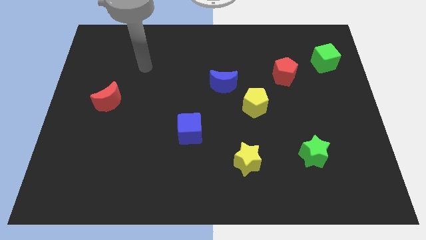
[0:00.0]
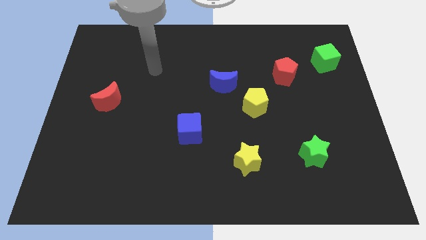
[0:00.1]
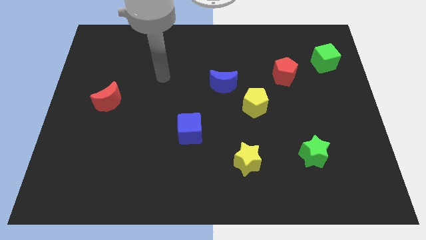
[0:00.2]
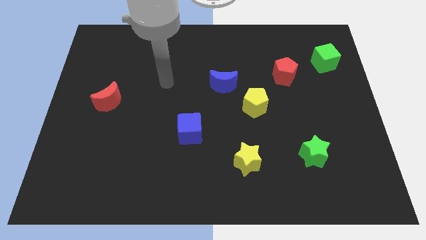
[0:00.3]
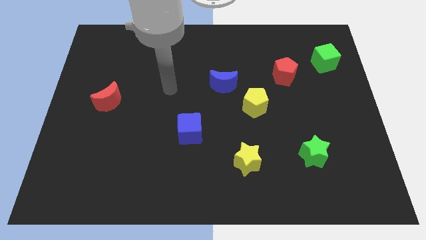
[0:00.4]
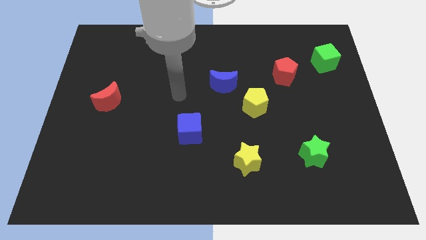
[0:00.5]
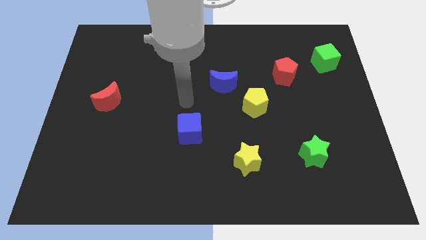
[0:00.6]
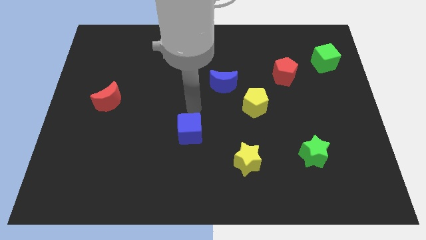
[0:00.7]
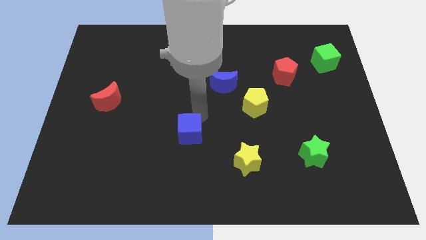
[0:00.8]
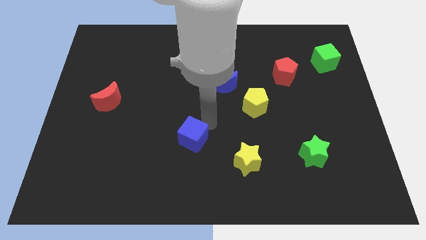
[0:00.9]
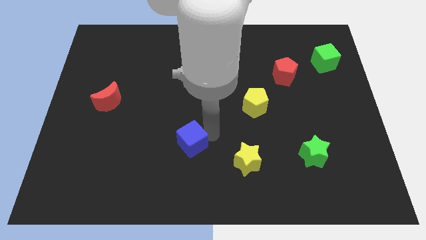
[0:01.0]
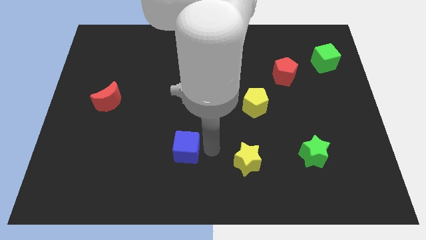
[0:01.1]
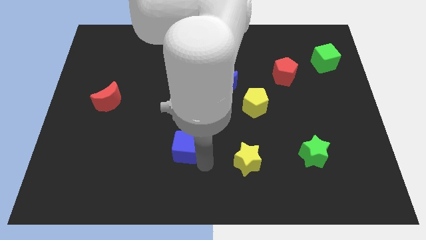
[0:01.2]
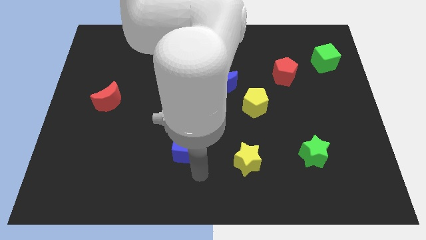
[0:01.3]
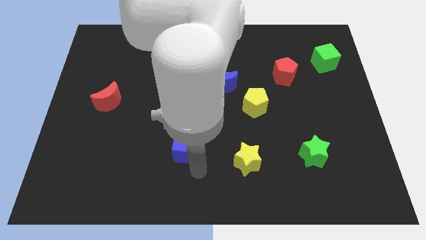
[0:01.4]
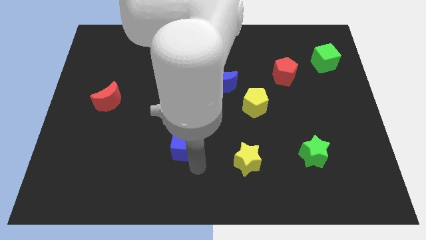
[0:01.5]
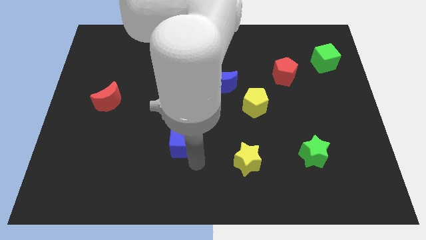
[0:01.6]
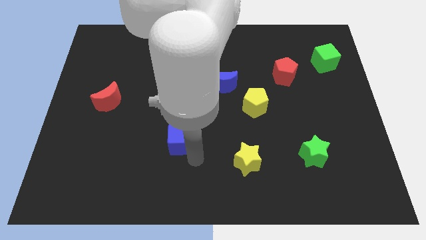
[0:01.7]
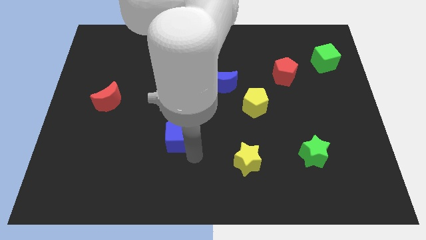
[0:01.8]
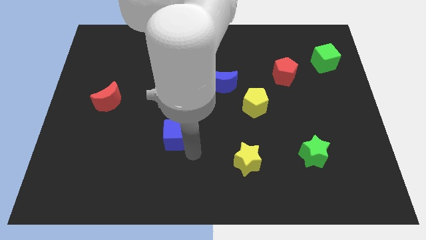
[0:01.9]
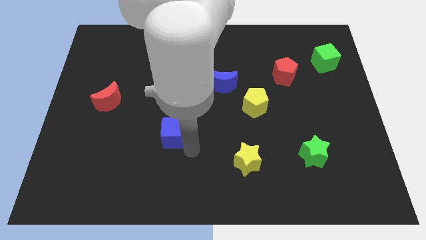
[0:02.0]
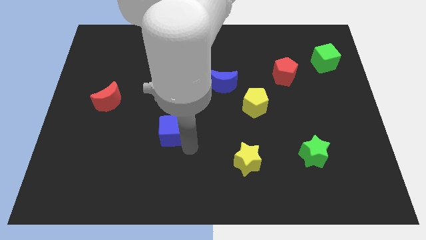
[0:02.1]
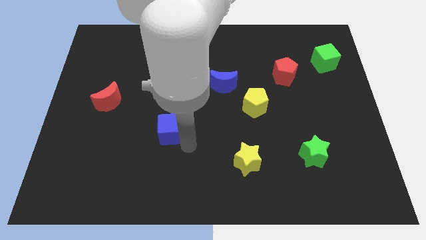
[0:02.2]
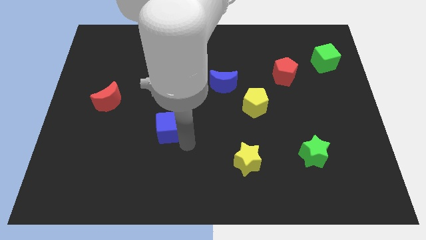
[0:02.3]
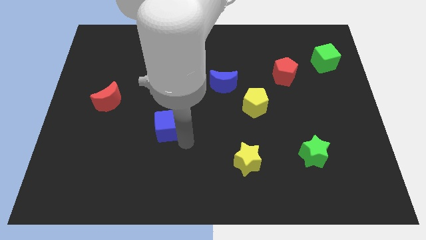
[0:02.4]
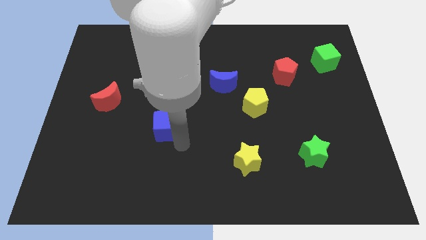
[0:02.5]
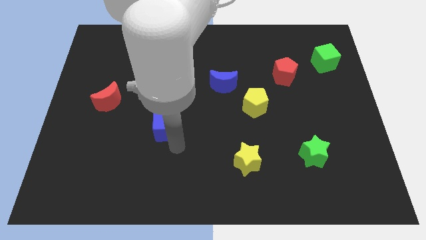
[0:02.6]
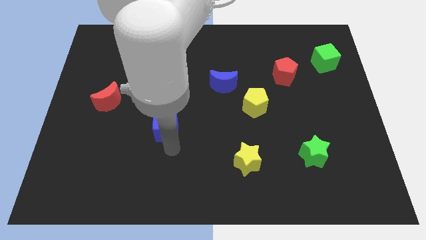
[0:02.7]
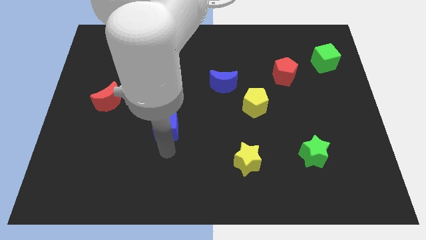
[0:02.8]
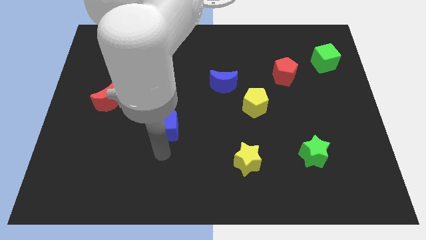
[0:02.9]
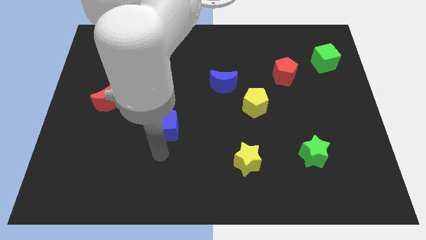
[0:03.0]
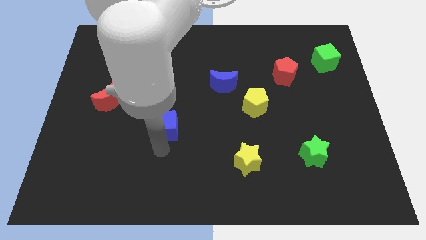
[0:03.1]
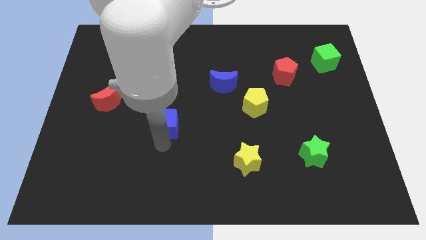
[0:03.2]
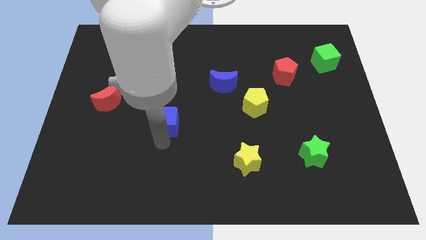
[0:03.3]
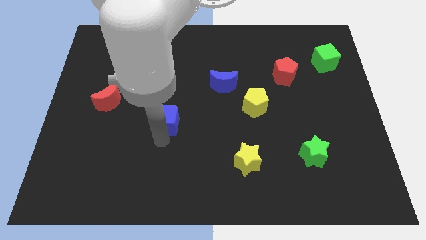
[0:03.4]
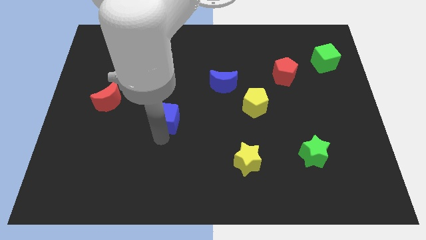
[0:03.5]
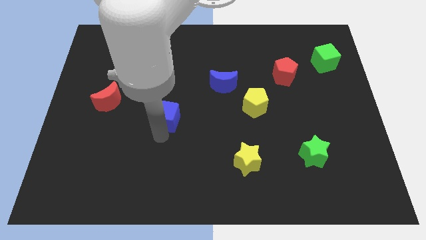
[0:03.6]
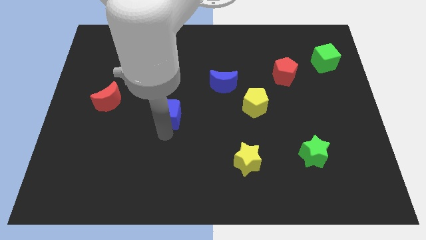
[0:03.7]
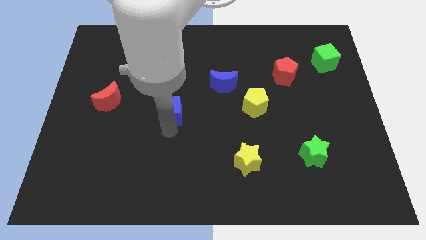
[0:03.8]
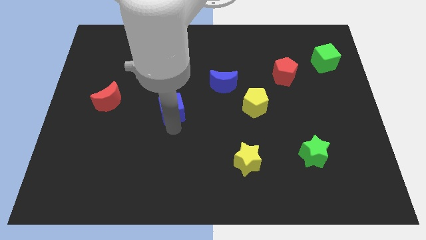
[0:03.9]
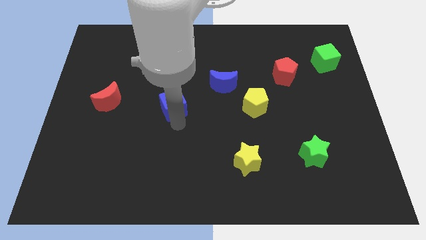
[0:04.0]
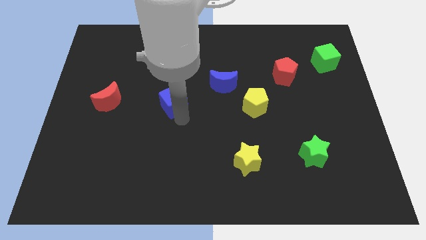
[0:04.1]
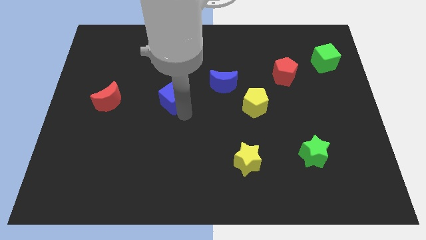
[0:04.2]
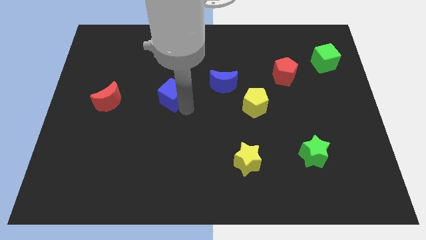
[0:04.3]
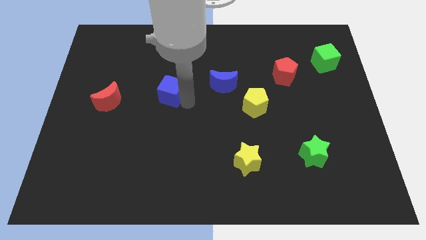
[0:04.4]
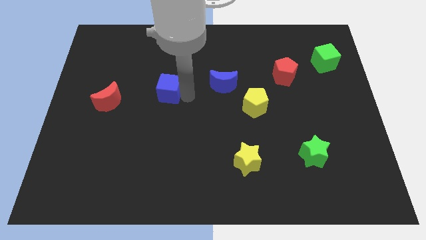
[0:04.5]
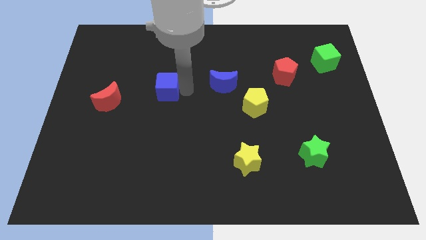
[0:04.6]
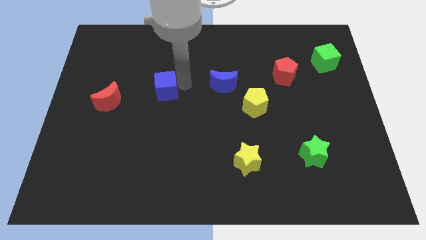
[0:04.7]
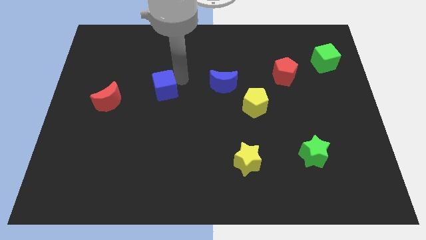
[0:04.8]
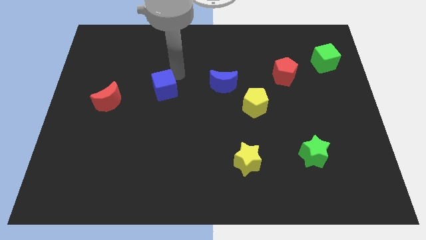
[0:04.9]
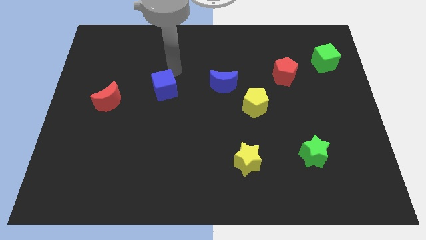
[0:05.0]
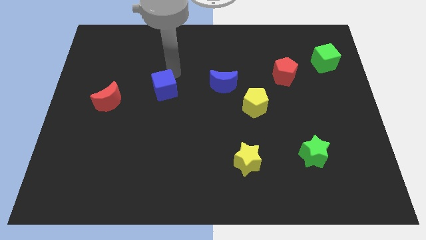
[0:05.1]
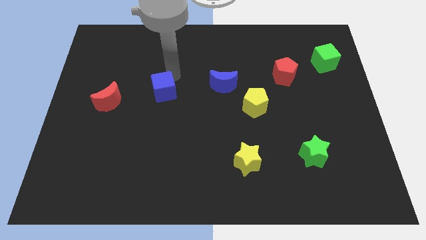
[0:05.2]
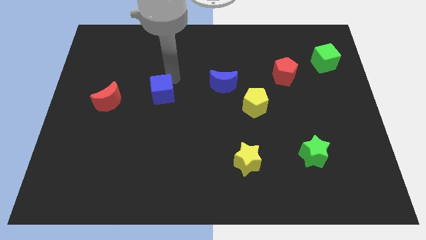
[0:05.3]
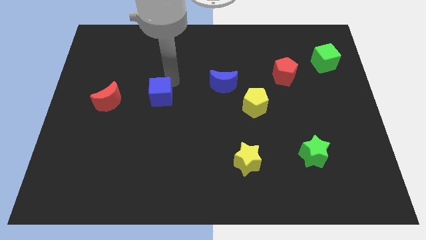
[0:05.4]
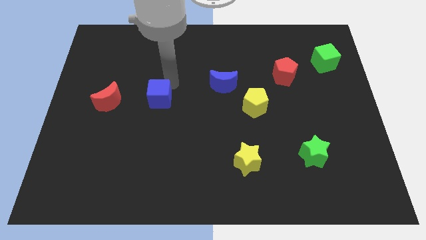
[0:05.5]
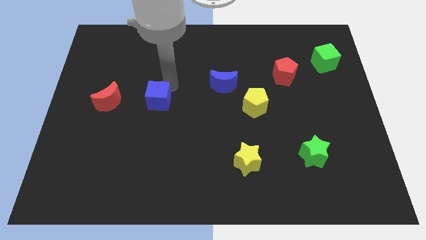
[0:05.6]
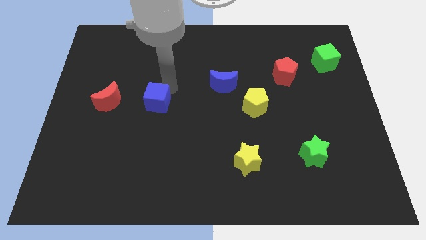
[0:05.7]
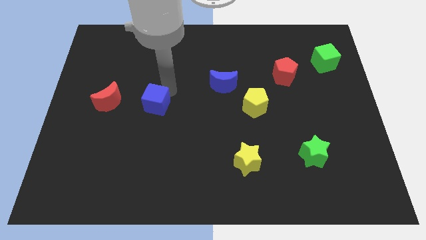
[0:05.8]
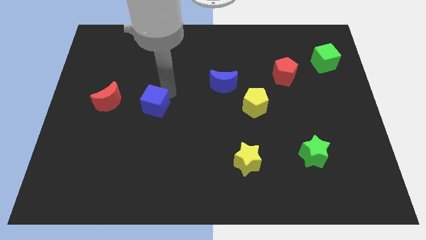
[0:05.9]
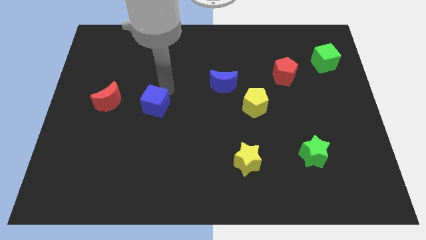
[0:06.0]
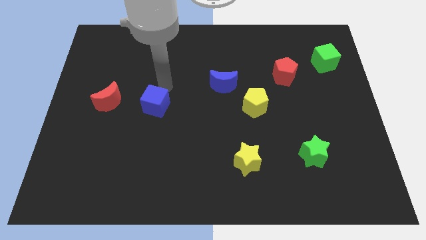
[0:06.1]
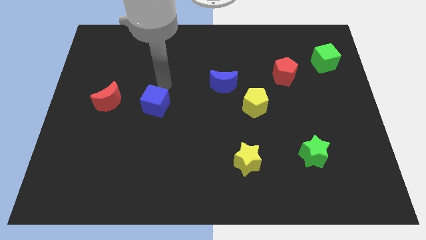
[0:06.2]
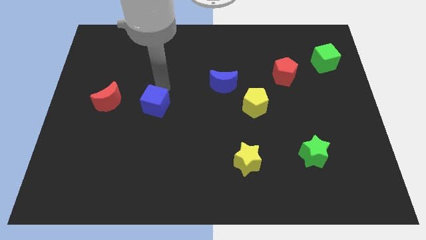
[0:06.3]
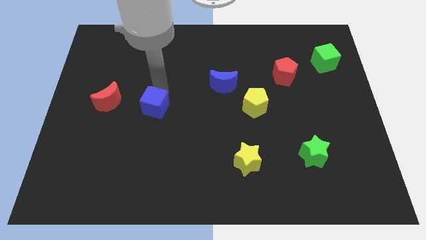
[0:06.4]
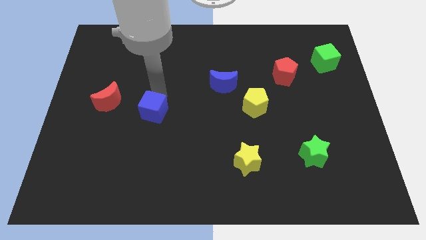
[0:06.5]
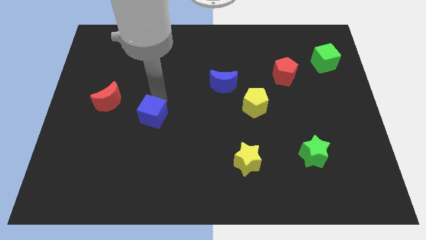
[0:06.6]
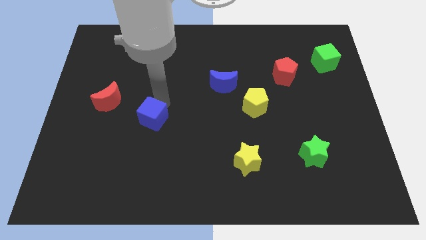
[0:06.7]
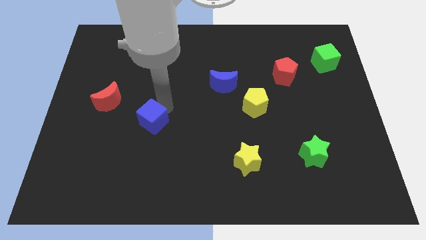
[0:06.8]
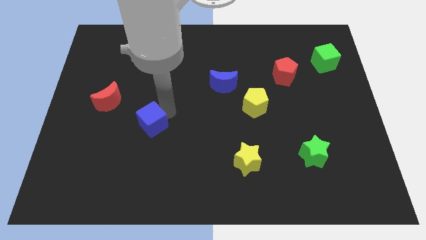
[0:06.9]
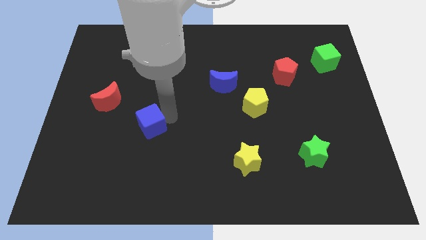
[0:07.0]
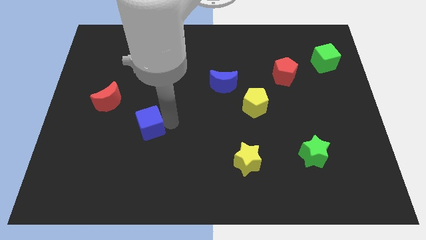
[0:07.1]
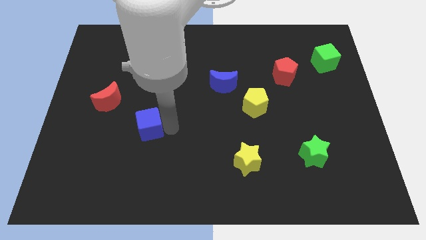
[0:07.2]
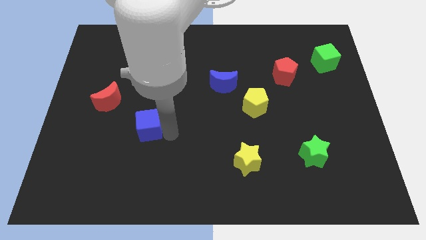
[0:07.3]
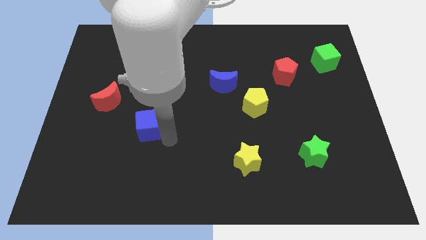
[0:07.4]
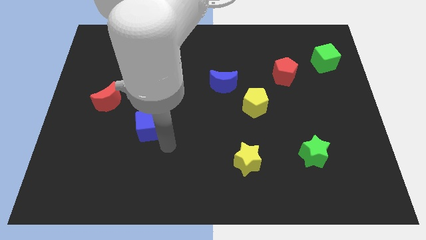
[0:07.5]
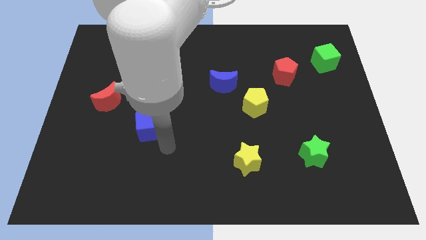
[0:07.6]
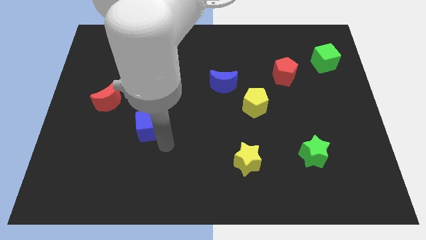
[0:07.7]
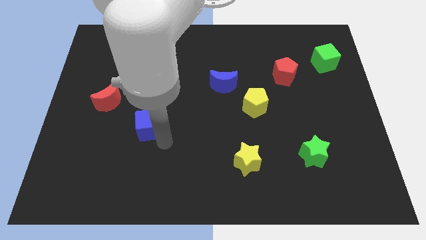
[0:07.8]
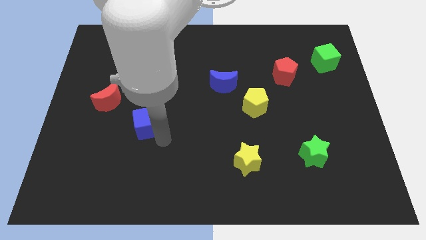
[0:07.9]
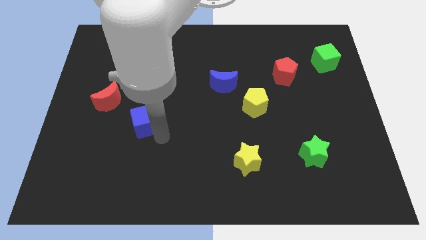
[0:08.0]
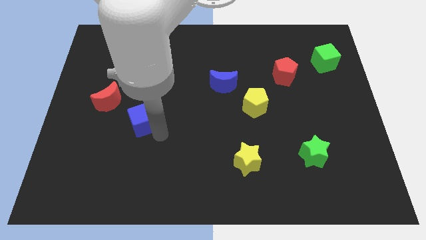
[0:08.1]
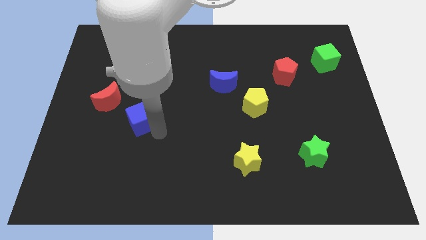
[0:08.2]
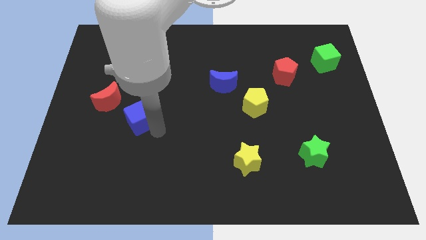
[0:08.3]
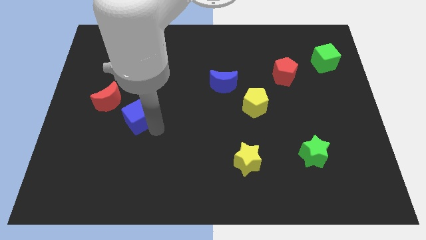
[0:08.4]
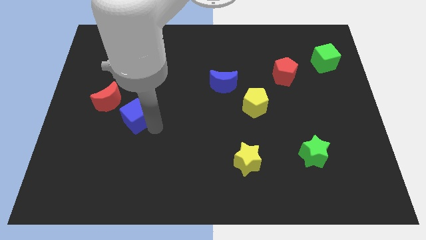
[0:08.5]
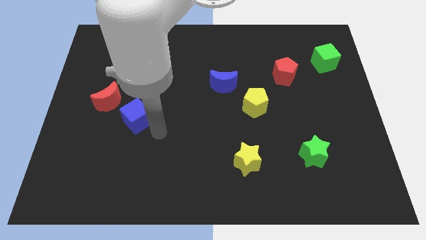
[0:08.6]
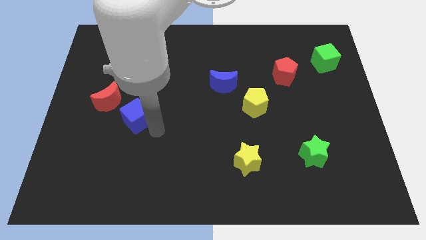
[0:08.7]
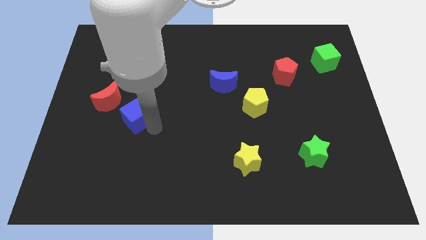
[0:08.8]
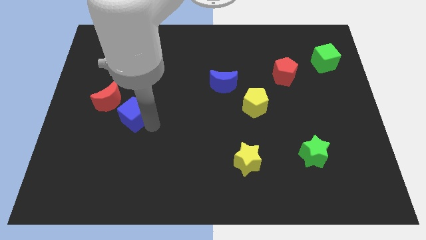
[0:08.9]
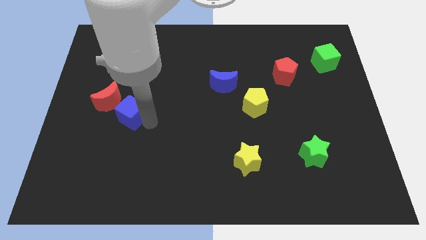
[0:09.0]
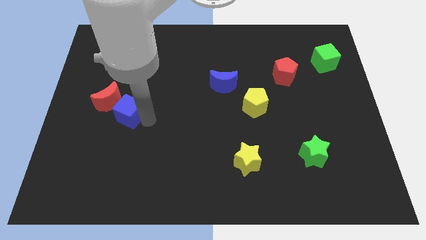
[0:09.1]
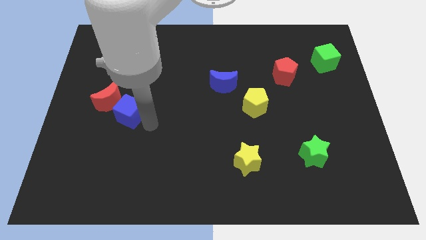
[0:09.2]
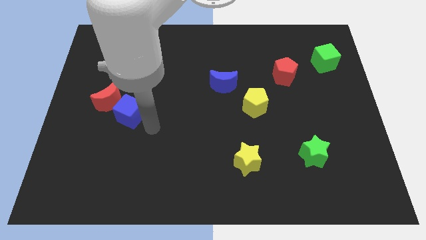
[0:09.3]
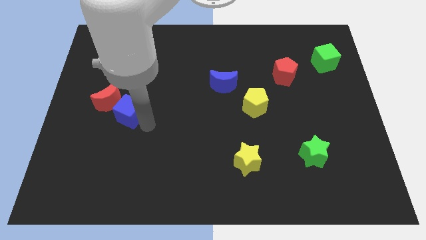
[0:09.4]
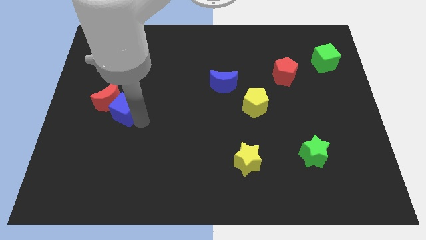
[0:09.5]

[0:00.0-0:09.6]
put the blue cube close to the red moon
